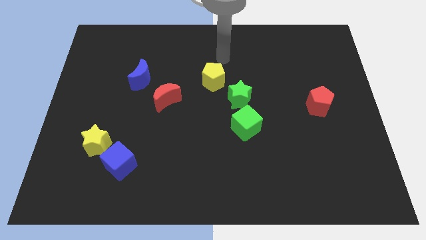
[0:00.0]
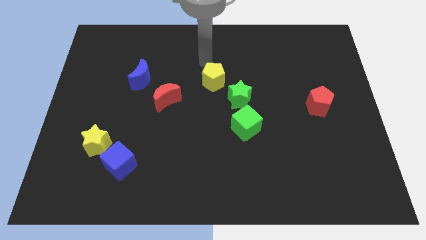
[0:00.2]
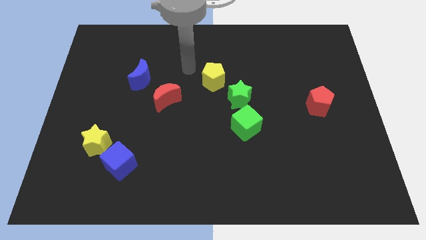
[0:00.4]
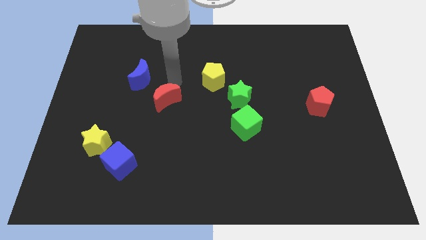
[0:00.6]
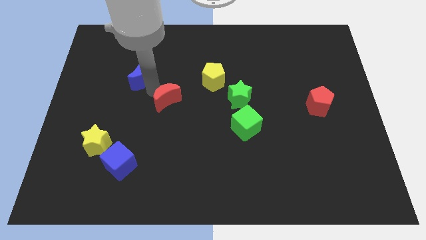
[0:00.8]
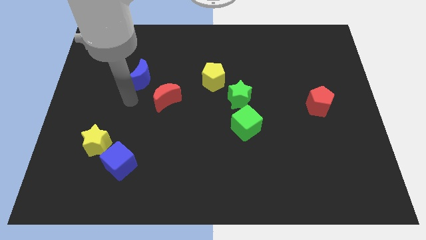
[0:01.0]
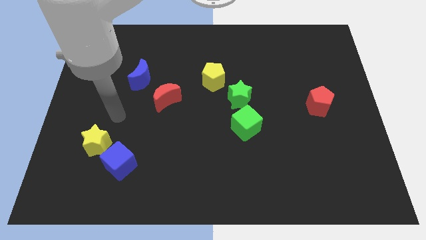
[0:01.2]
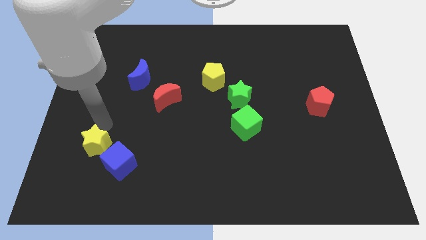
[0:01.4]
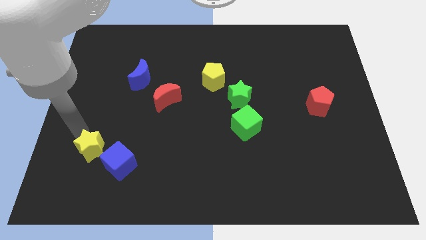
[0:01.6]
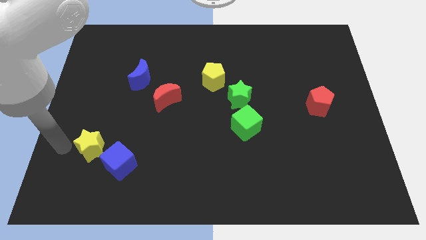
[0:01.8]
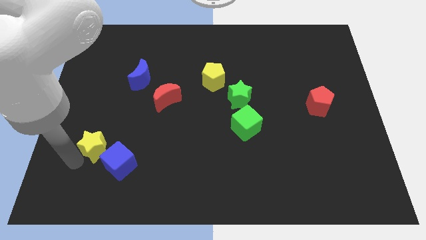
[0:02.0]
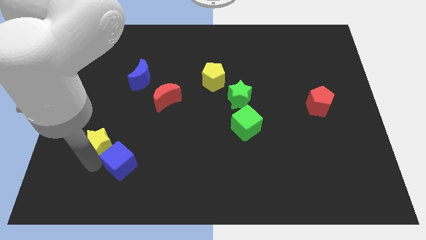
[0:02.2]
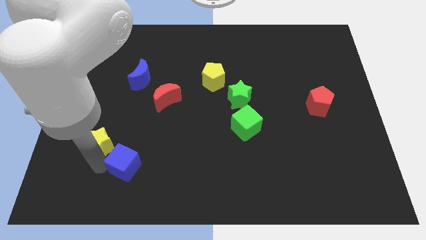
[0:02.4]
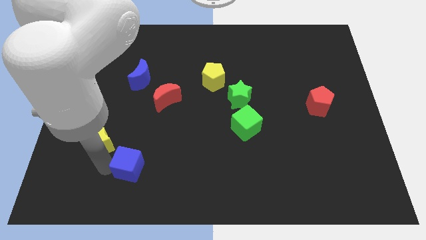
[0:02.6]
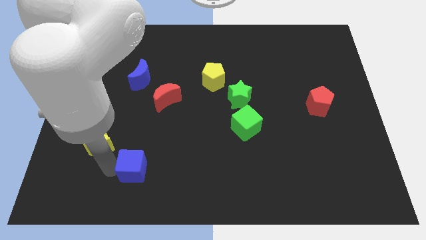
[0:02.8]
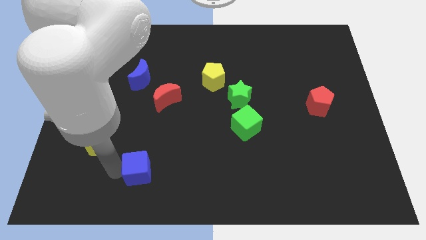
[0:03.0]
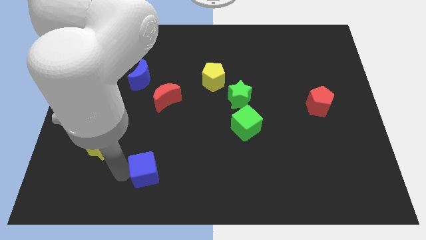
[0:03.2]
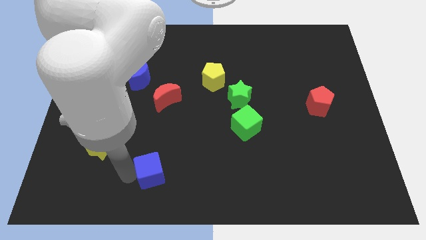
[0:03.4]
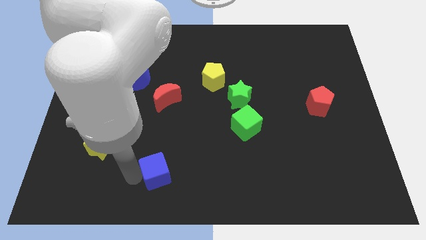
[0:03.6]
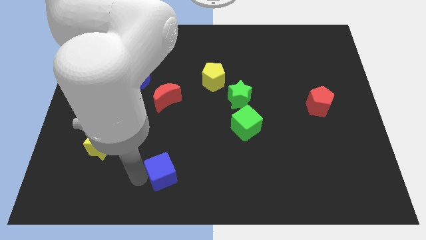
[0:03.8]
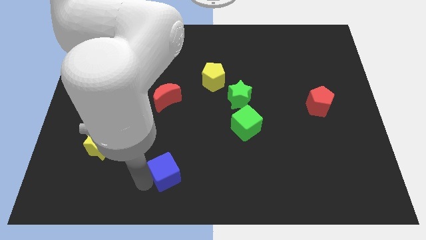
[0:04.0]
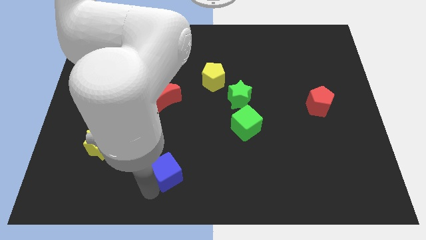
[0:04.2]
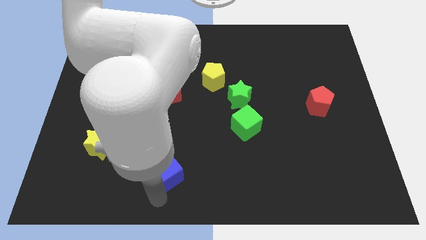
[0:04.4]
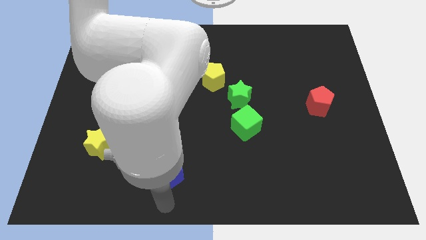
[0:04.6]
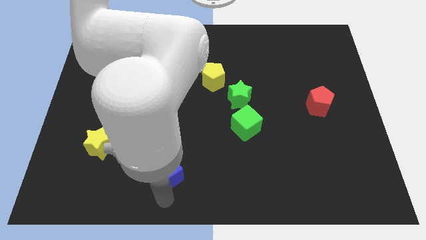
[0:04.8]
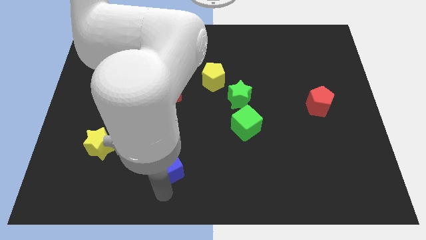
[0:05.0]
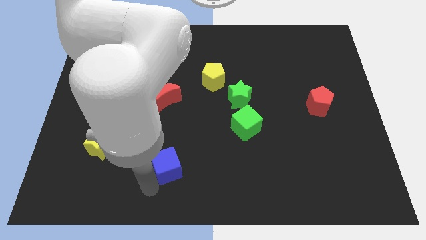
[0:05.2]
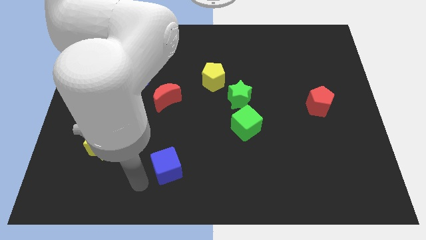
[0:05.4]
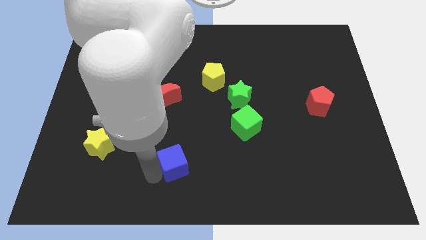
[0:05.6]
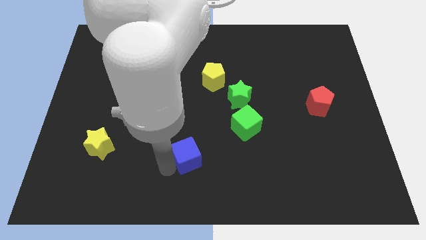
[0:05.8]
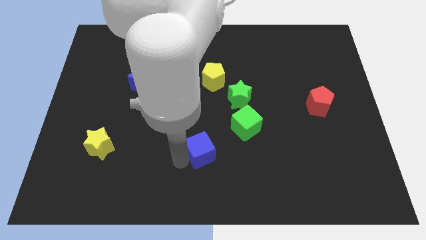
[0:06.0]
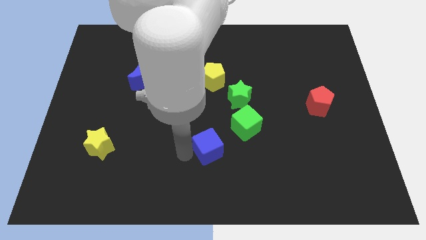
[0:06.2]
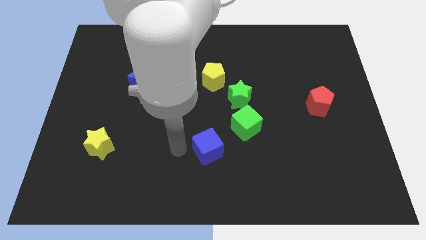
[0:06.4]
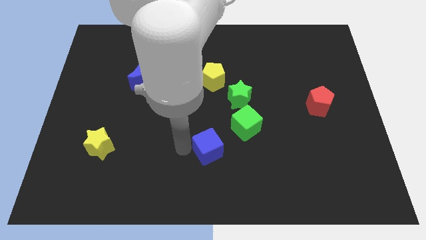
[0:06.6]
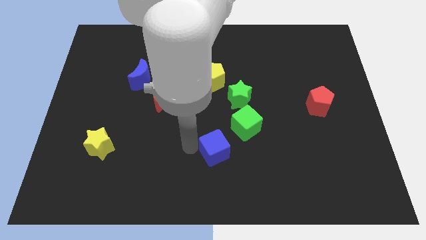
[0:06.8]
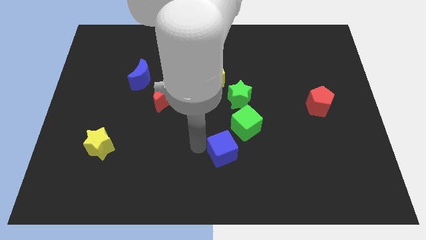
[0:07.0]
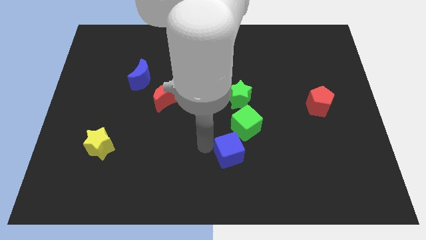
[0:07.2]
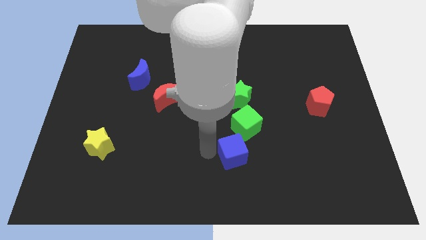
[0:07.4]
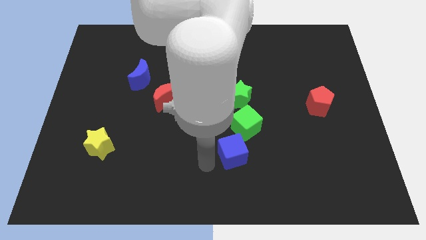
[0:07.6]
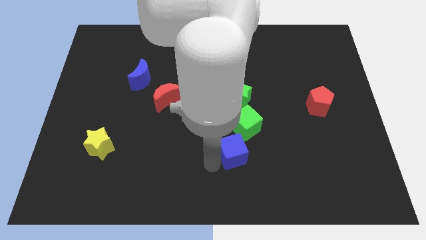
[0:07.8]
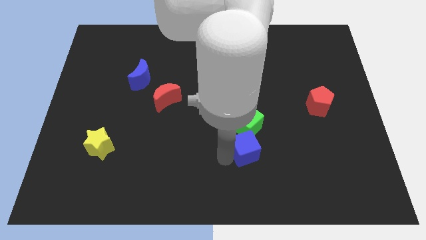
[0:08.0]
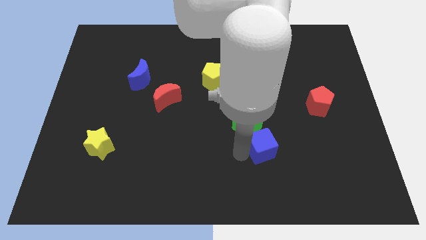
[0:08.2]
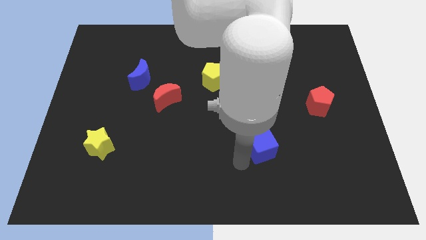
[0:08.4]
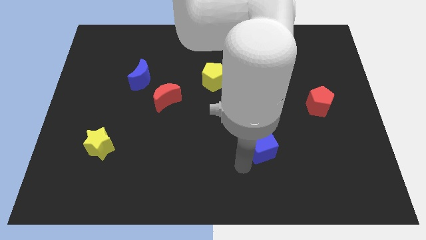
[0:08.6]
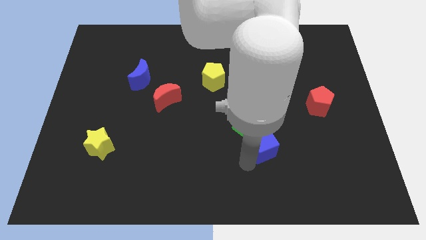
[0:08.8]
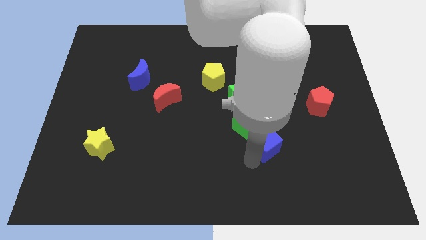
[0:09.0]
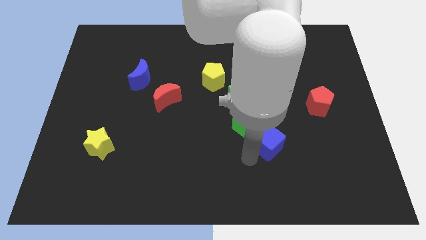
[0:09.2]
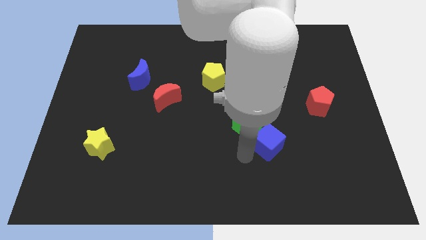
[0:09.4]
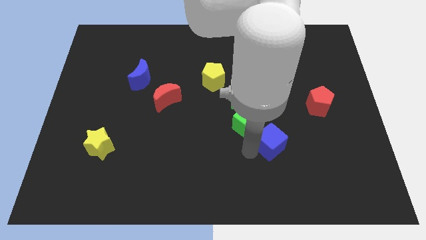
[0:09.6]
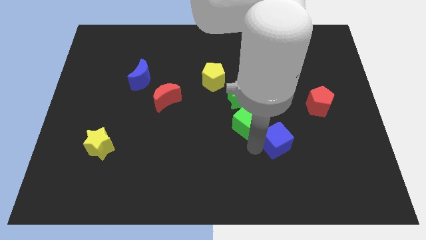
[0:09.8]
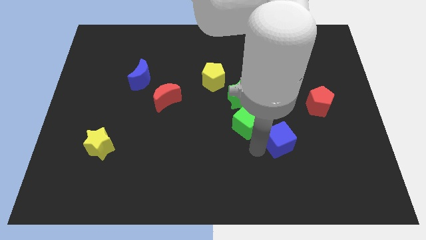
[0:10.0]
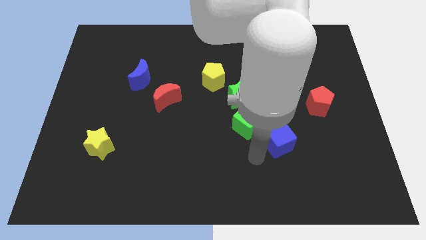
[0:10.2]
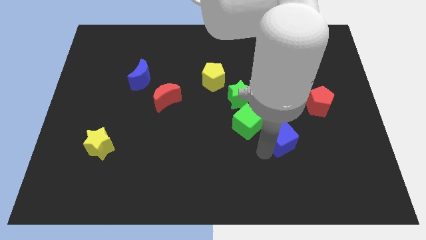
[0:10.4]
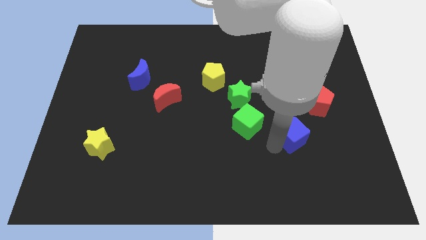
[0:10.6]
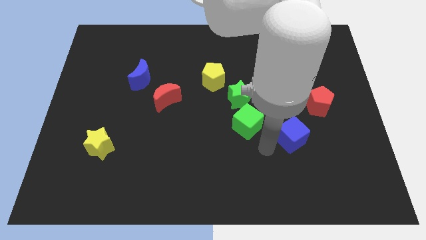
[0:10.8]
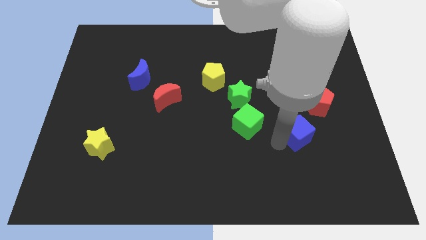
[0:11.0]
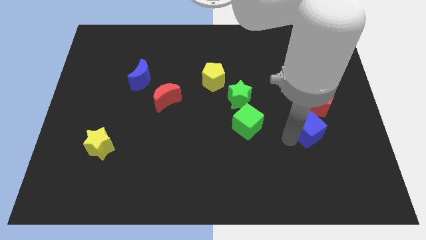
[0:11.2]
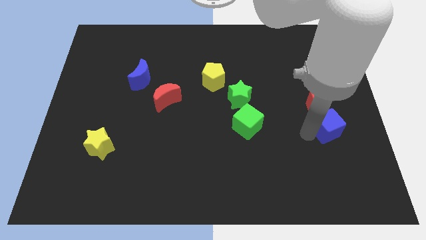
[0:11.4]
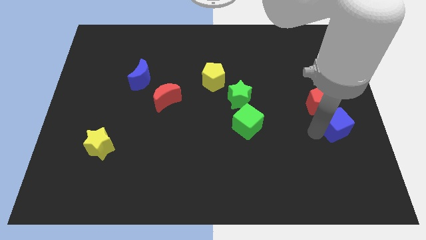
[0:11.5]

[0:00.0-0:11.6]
push the blue cube to the right side of the board

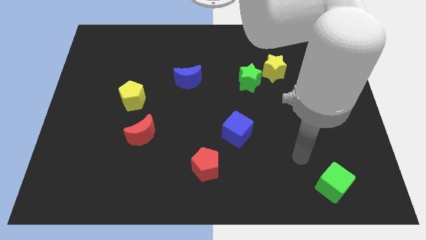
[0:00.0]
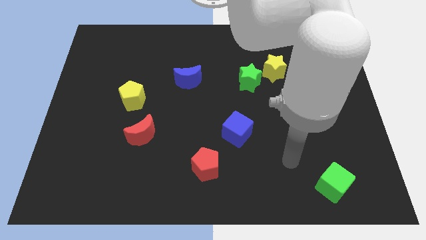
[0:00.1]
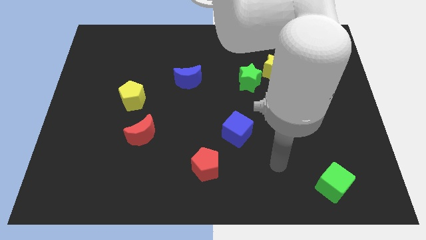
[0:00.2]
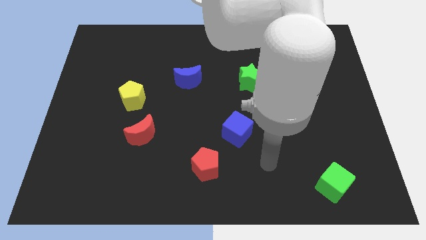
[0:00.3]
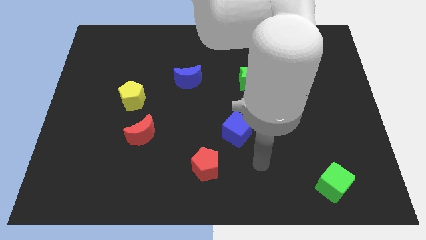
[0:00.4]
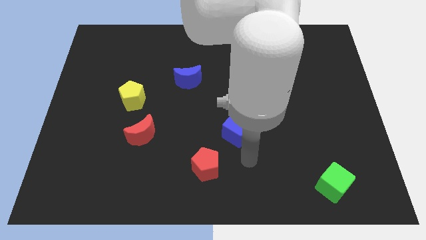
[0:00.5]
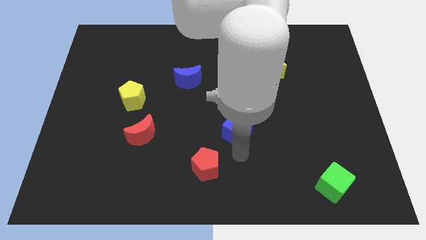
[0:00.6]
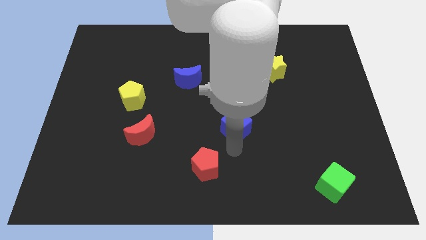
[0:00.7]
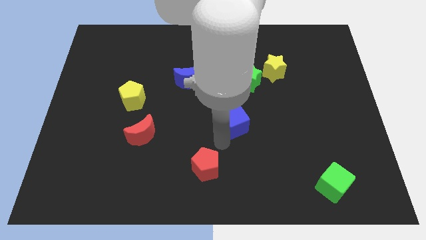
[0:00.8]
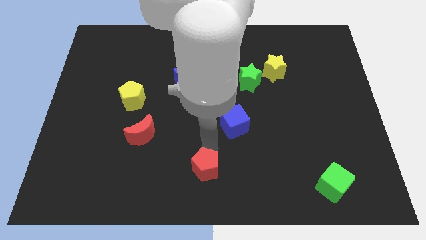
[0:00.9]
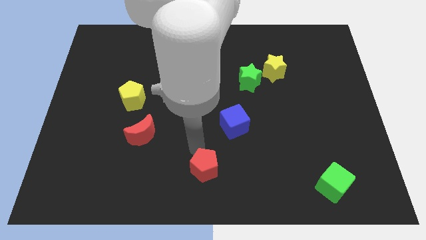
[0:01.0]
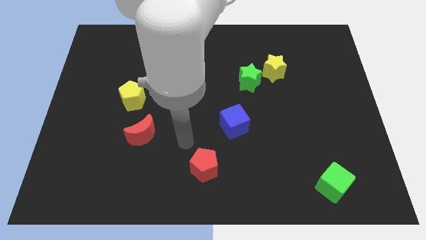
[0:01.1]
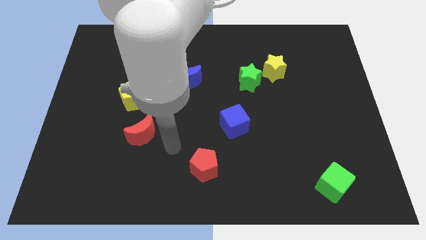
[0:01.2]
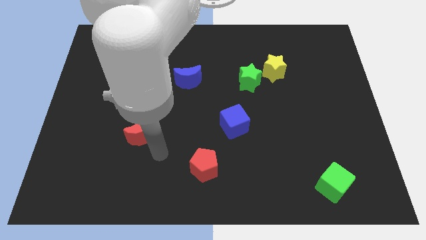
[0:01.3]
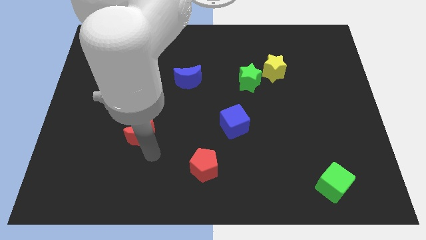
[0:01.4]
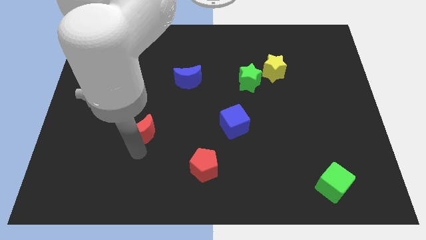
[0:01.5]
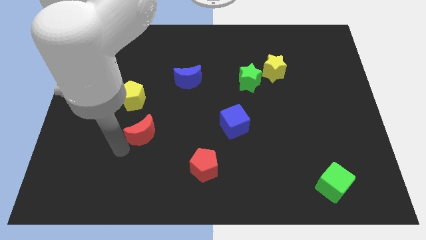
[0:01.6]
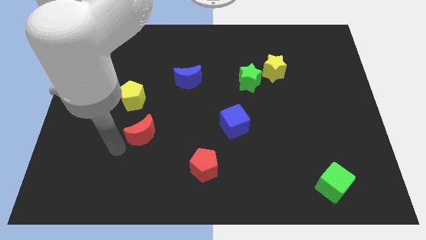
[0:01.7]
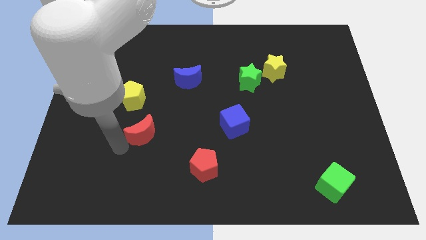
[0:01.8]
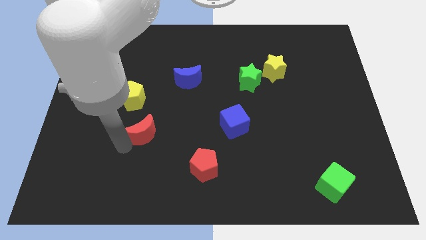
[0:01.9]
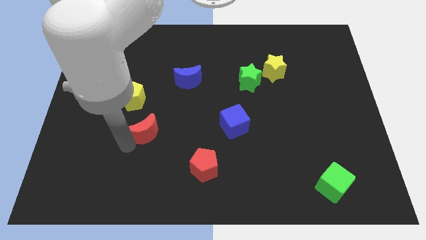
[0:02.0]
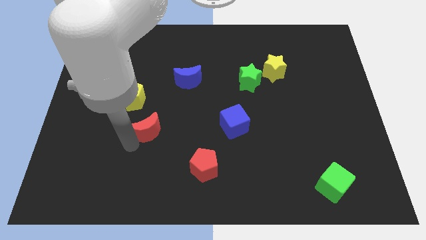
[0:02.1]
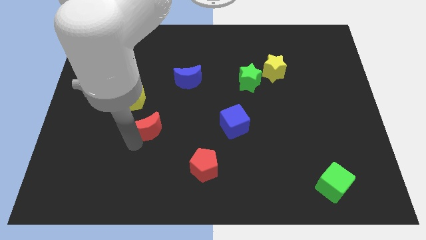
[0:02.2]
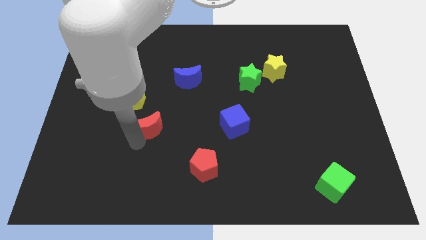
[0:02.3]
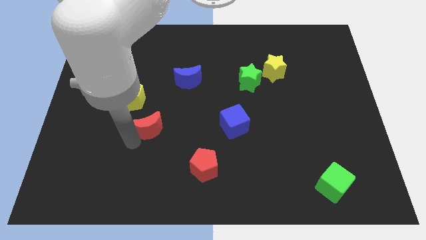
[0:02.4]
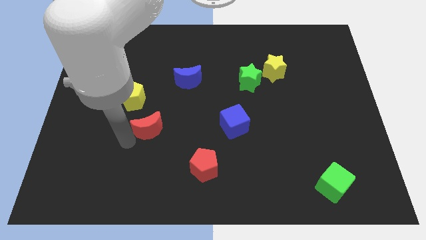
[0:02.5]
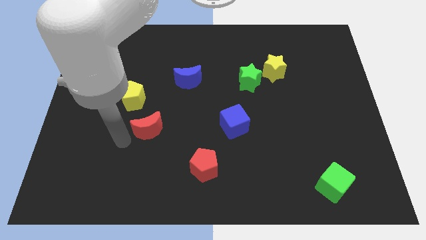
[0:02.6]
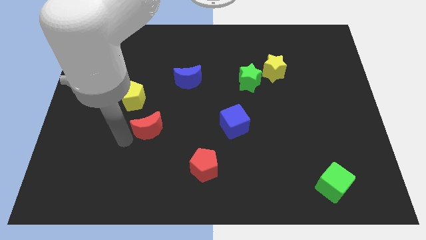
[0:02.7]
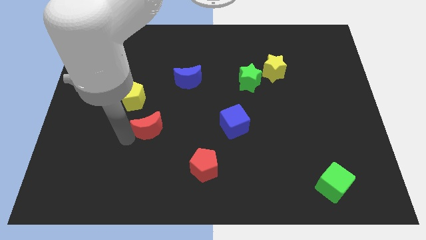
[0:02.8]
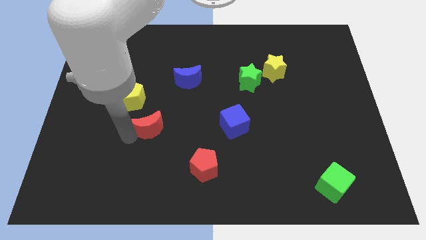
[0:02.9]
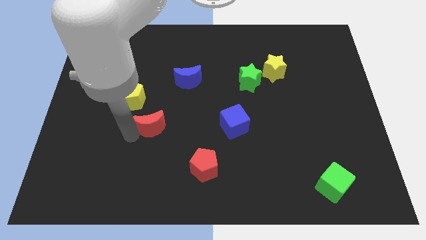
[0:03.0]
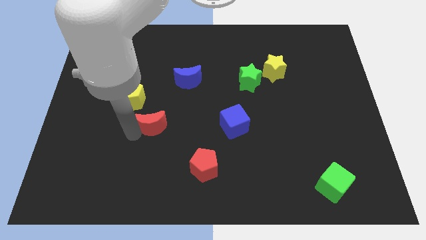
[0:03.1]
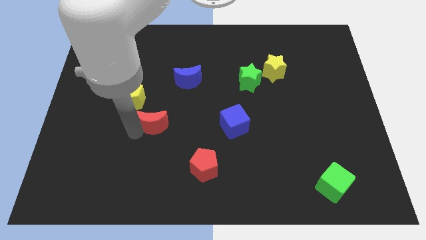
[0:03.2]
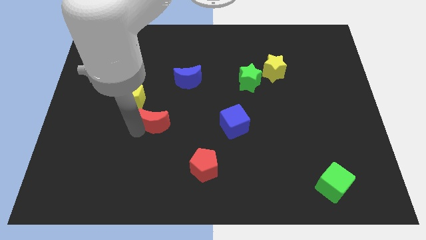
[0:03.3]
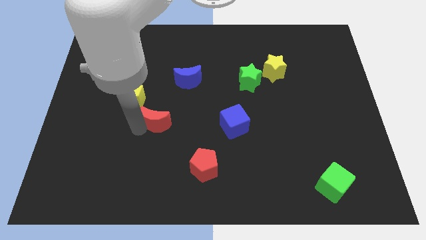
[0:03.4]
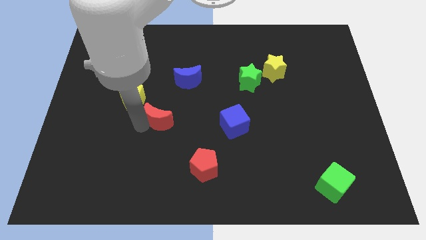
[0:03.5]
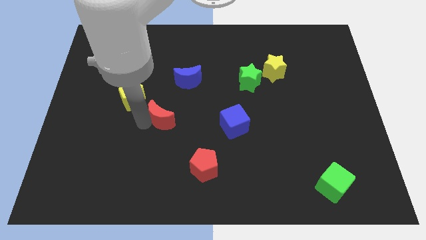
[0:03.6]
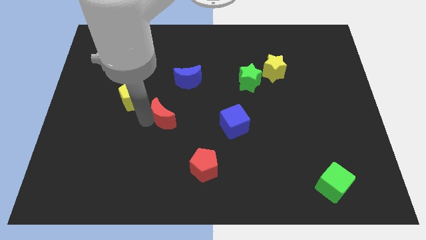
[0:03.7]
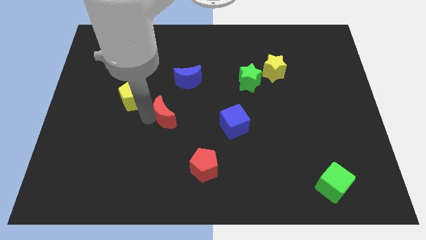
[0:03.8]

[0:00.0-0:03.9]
push the red moon to the center of the board
